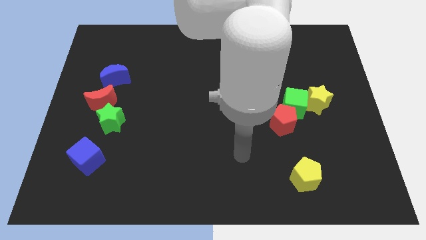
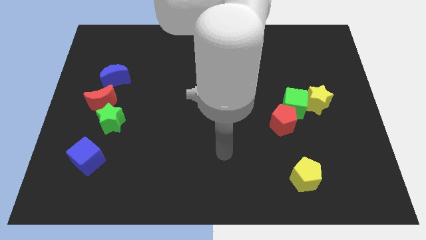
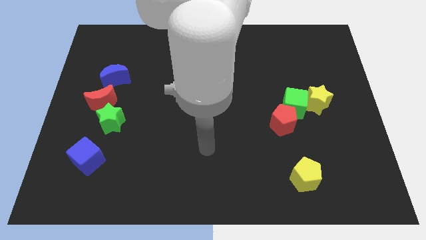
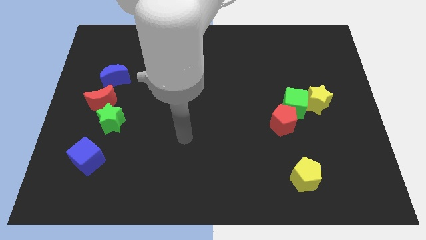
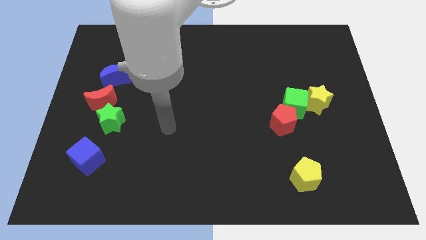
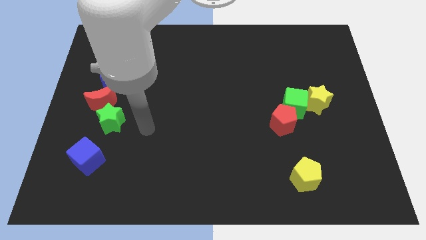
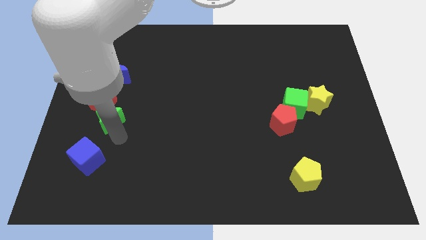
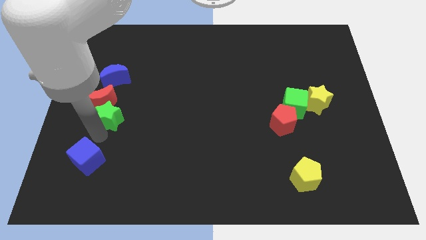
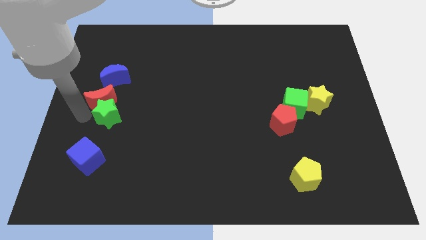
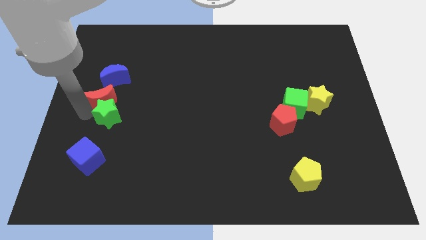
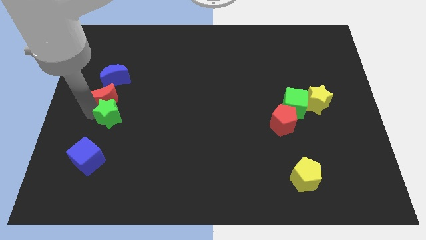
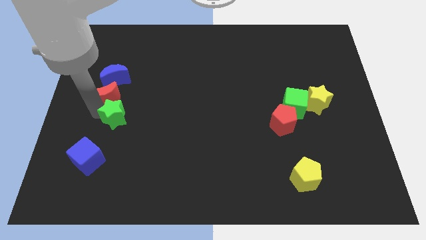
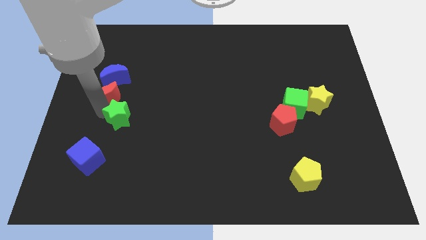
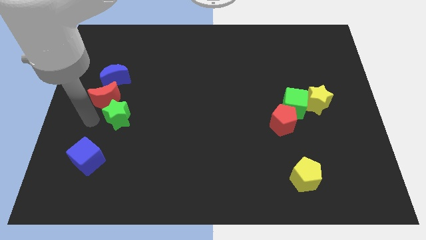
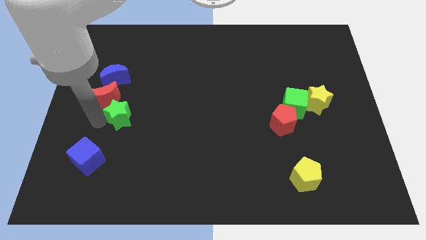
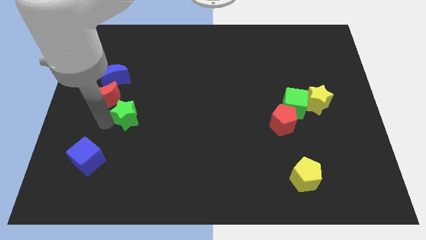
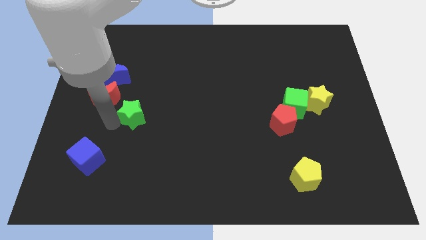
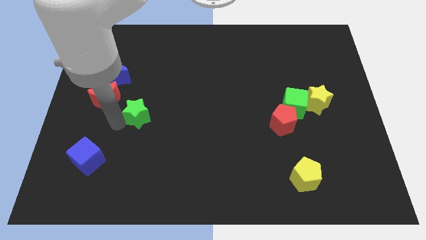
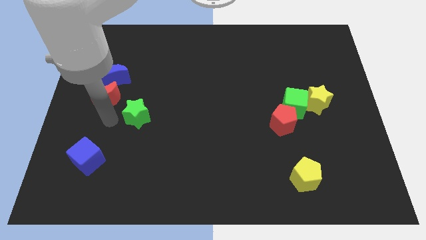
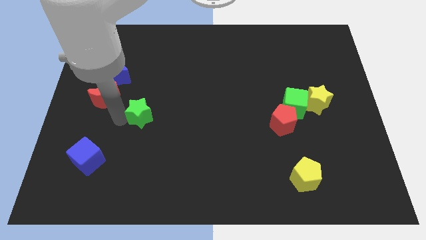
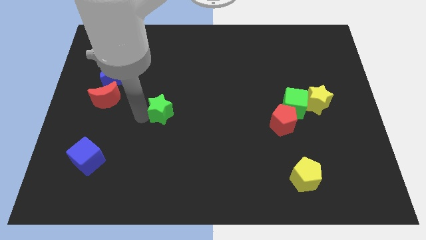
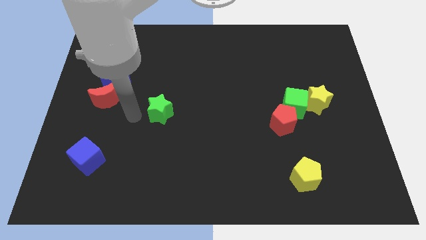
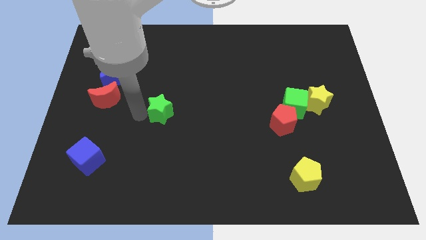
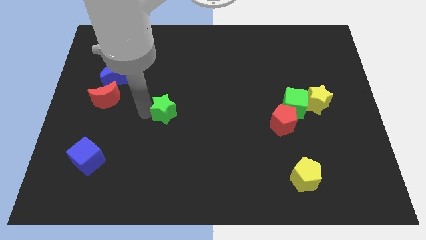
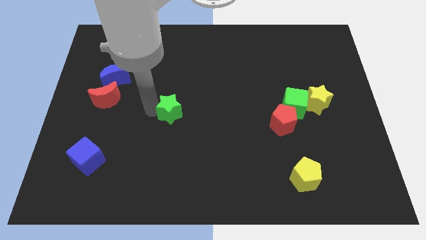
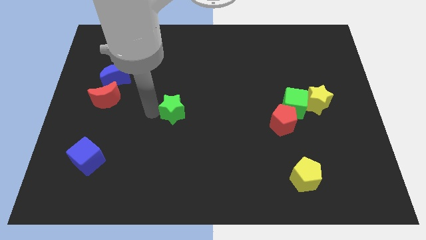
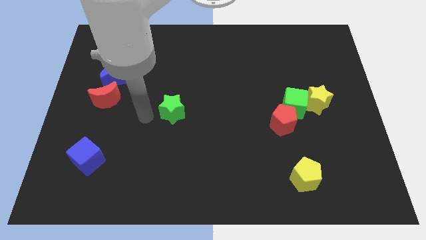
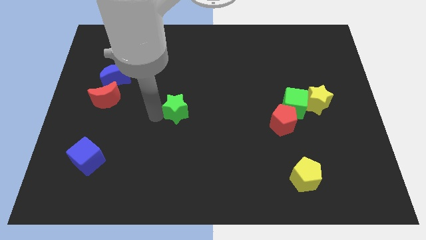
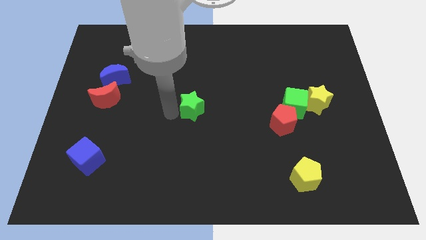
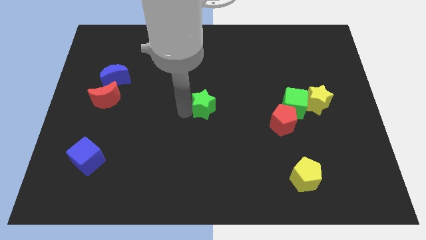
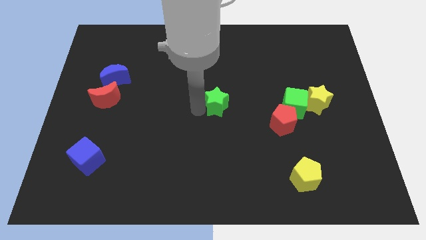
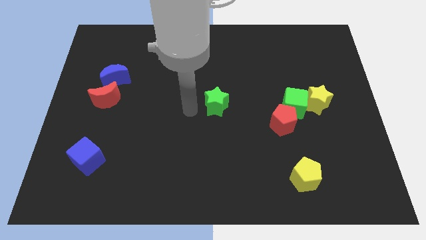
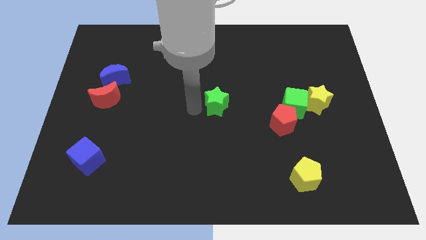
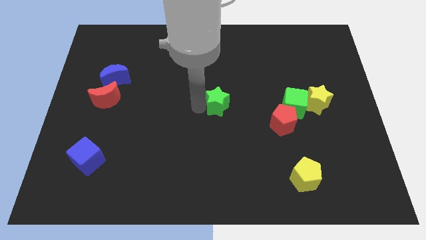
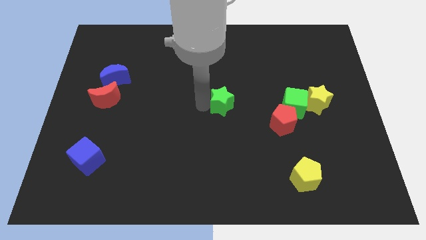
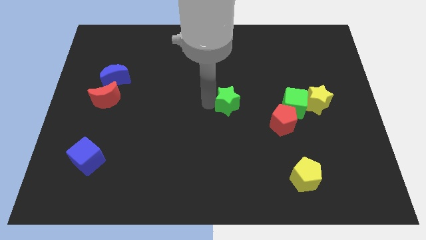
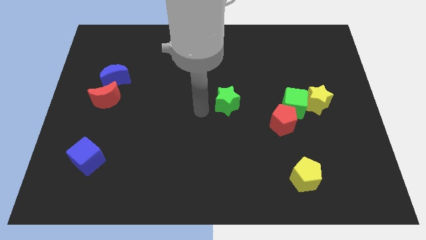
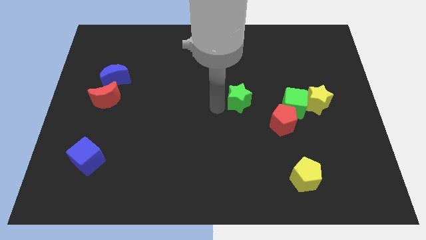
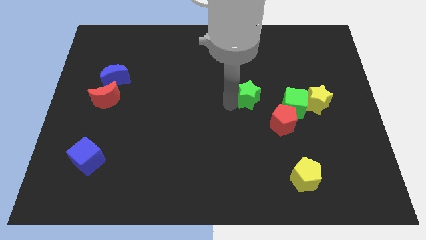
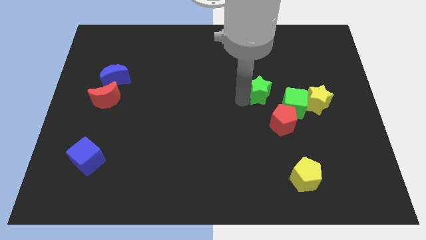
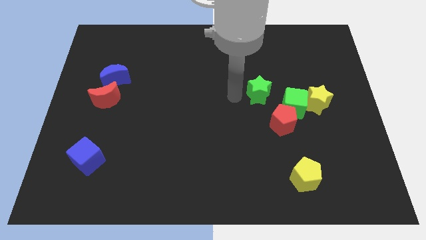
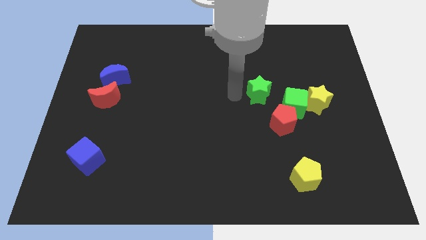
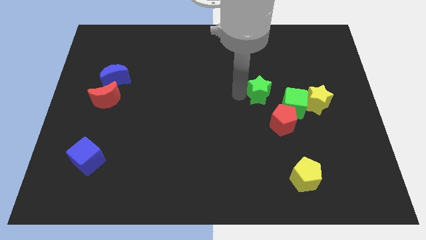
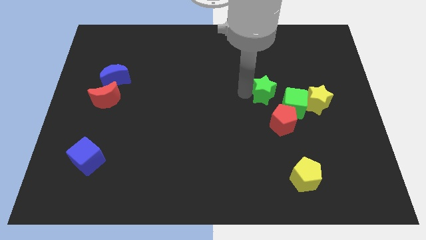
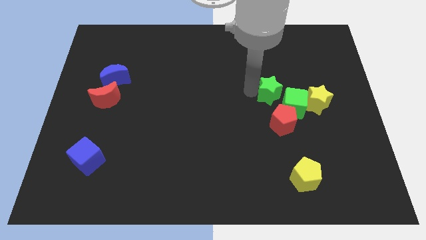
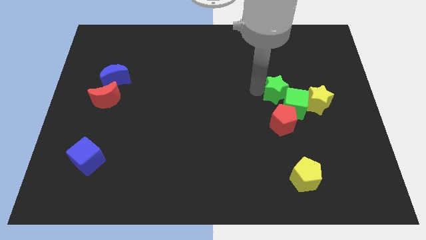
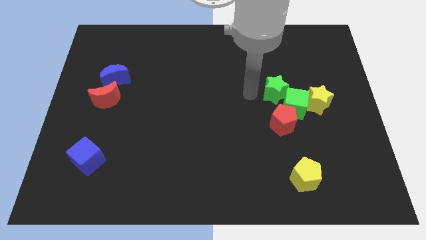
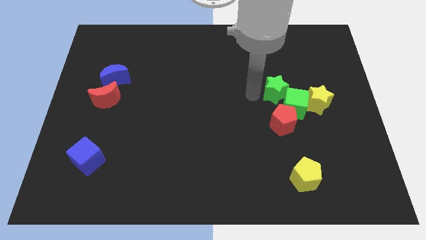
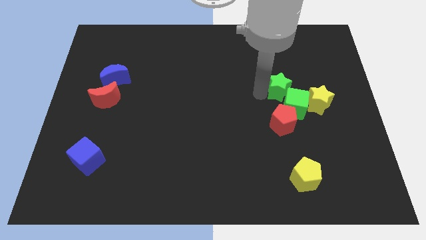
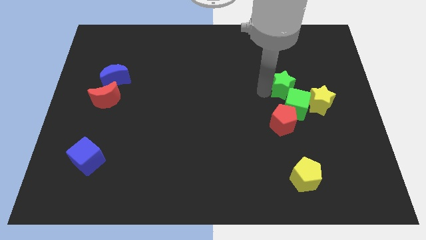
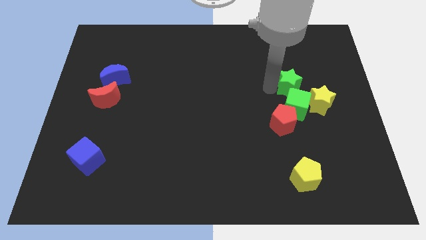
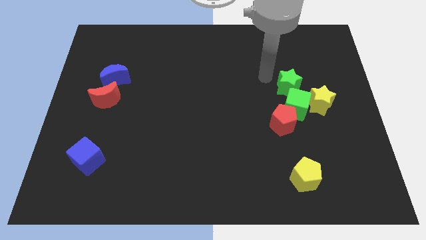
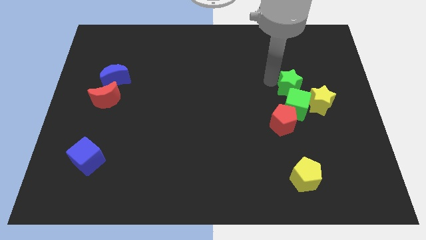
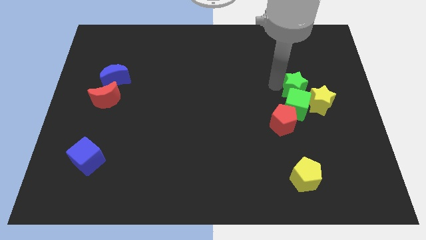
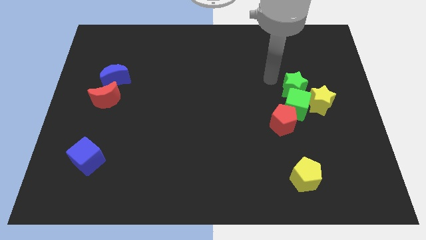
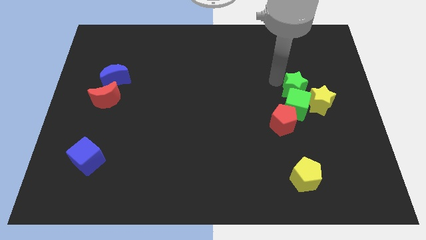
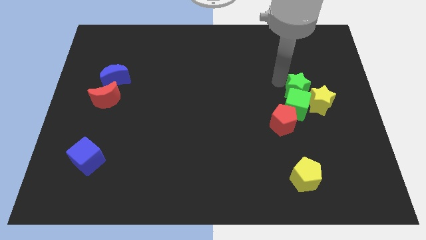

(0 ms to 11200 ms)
push the green star close to the yellow star

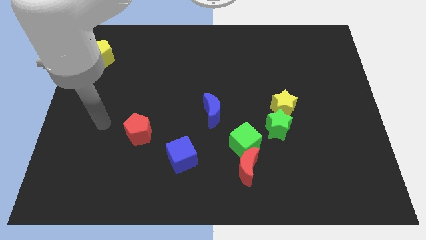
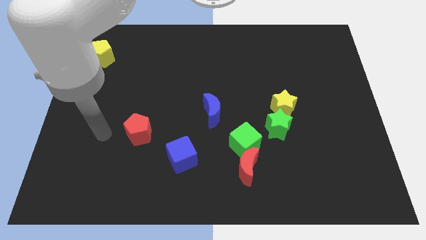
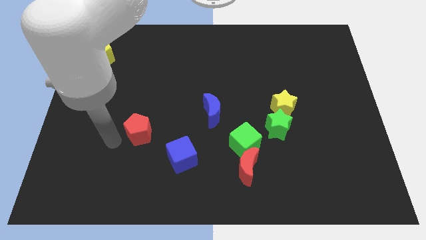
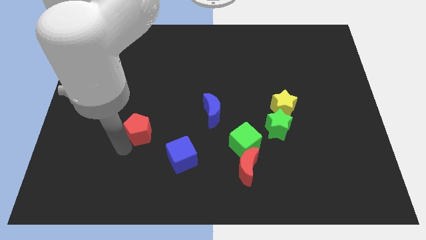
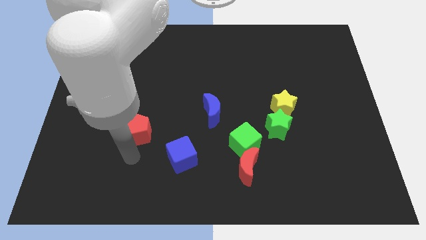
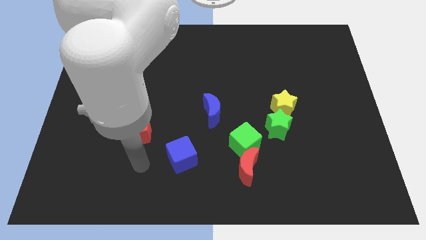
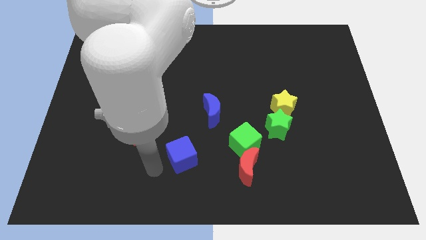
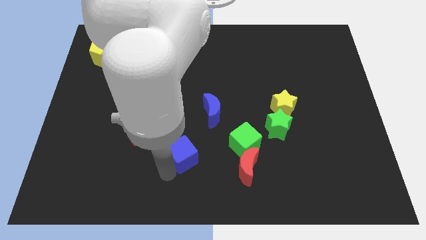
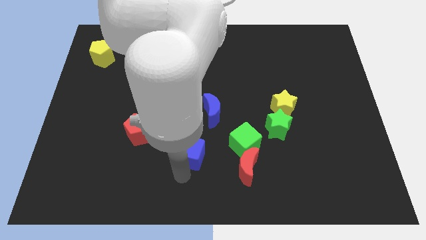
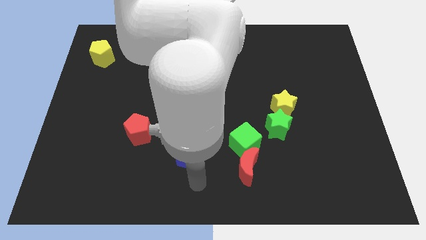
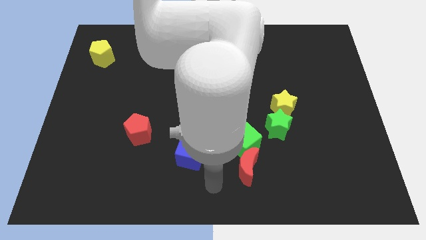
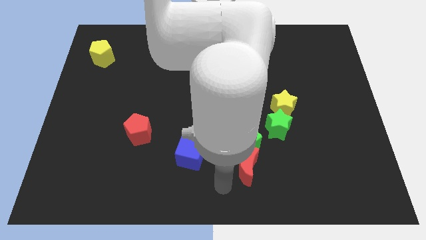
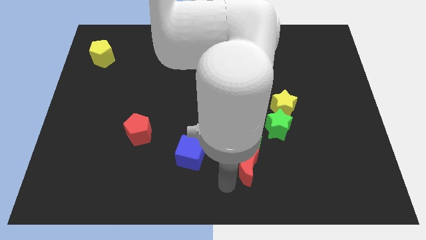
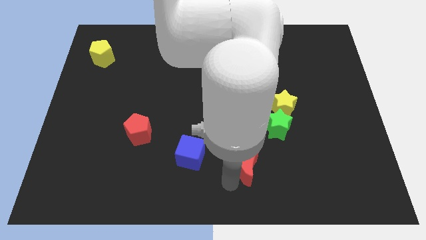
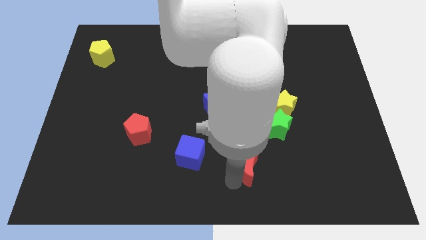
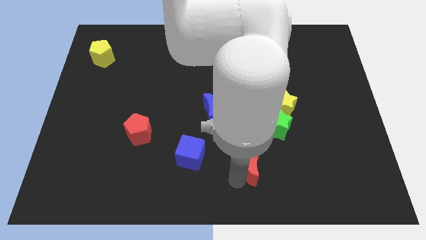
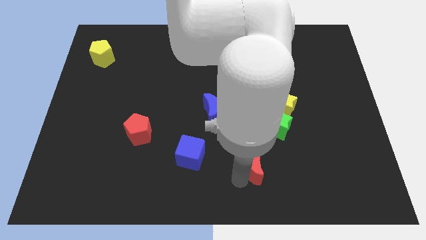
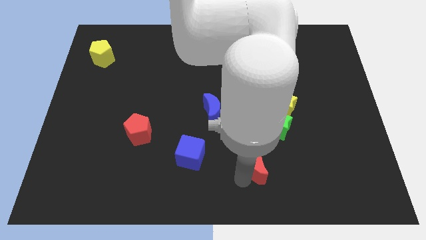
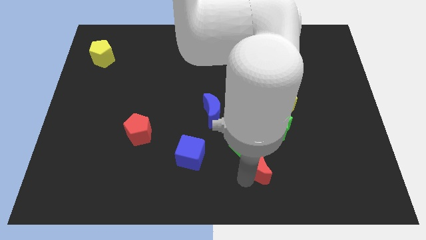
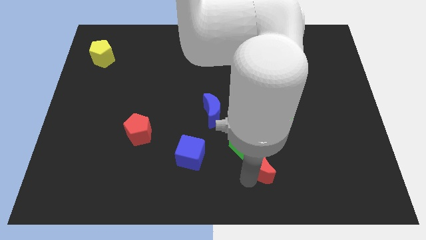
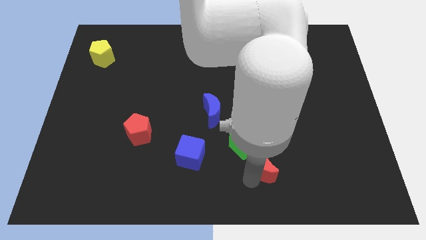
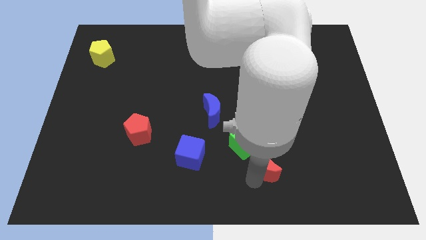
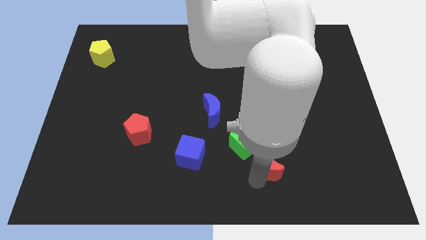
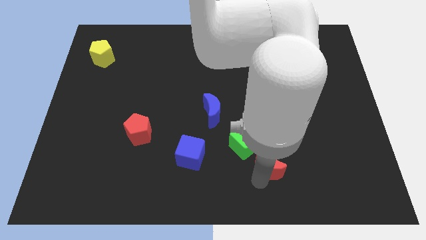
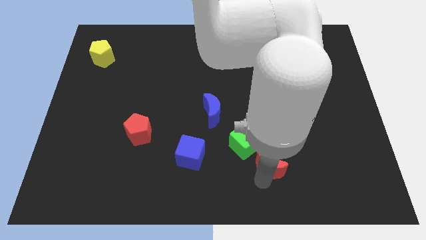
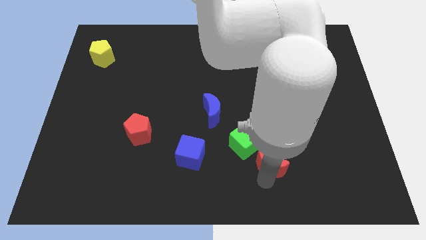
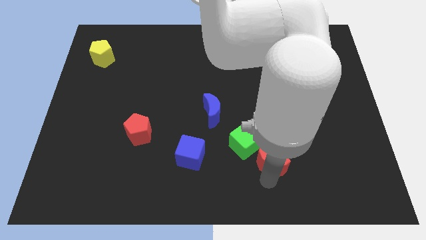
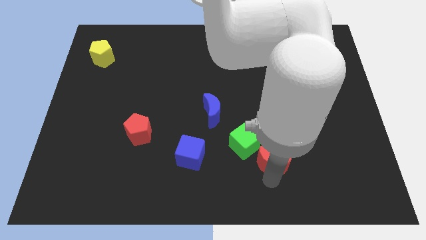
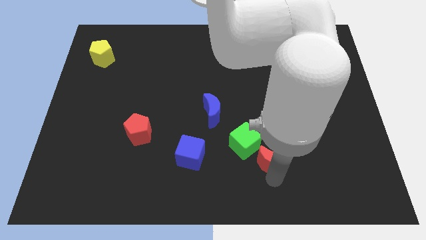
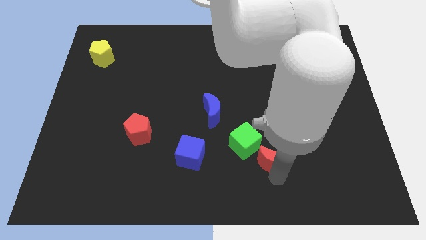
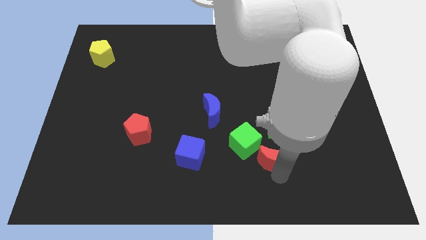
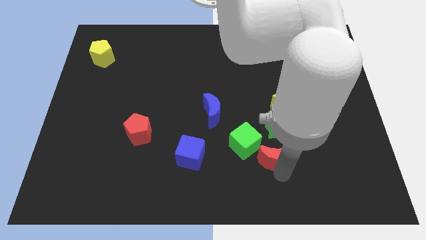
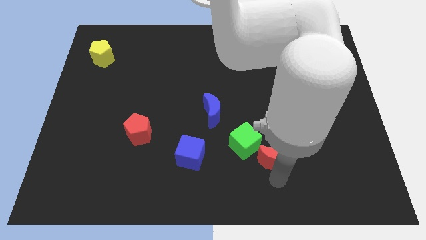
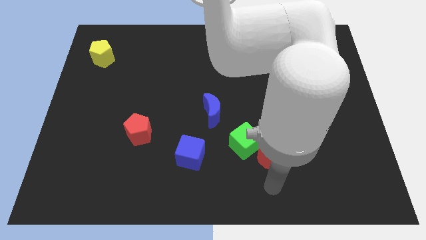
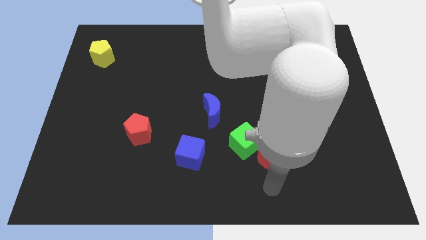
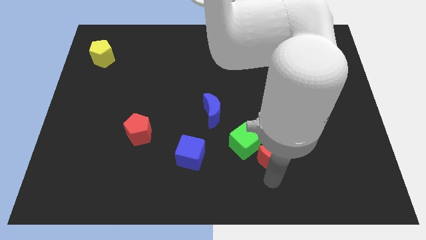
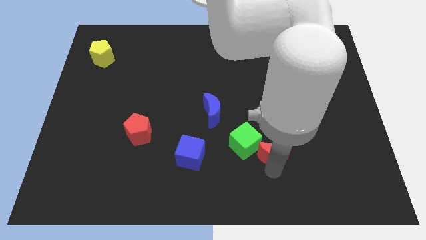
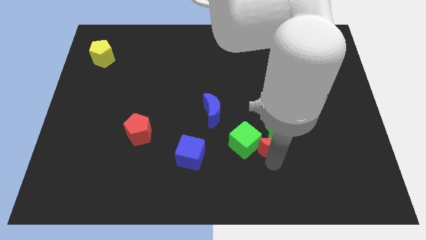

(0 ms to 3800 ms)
slide the red moon to the green star
